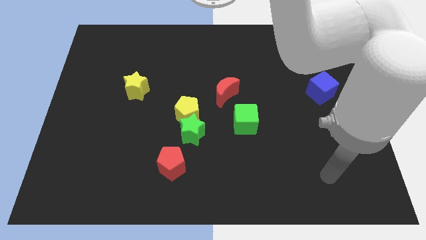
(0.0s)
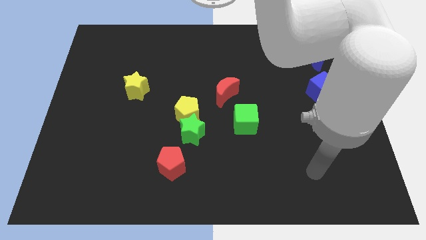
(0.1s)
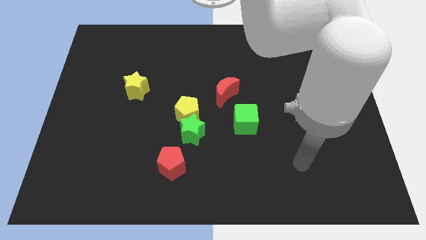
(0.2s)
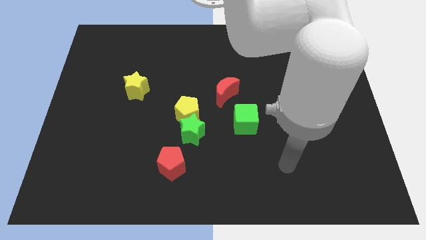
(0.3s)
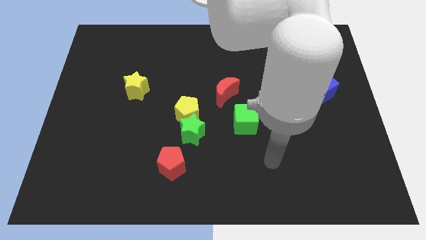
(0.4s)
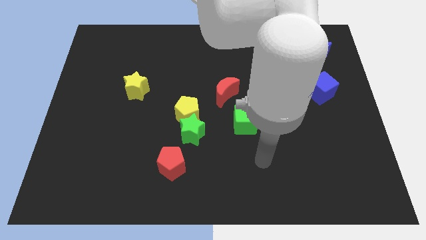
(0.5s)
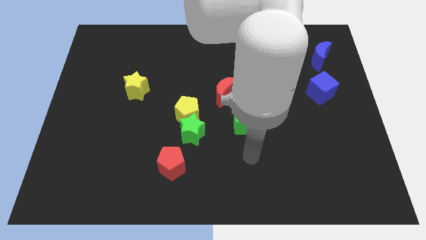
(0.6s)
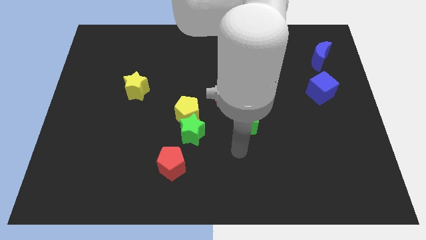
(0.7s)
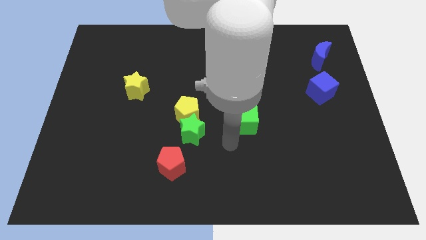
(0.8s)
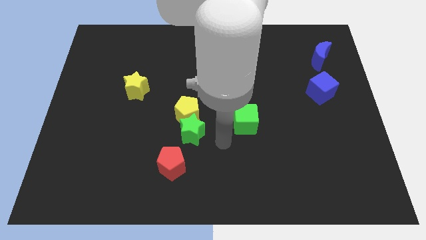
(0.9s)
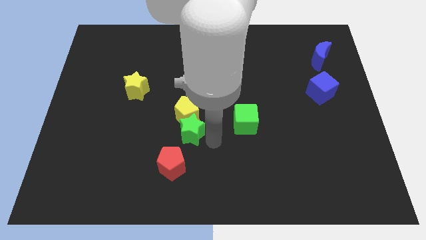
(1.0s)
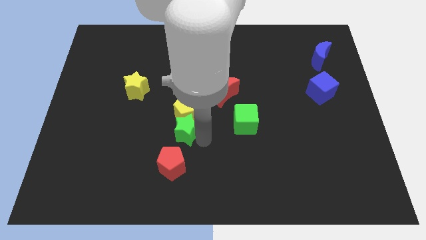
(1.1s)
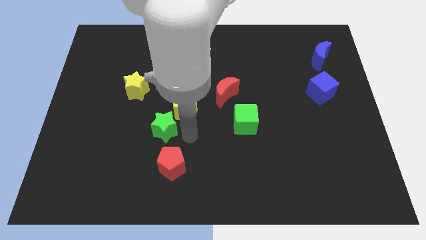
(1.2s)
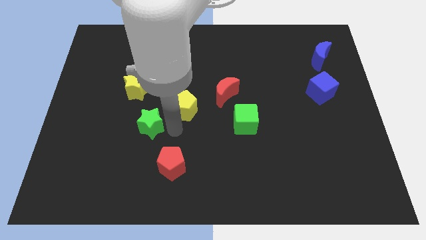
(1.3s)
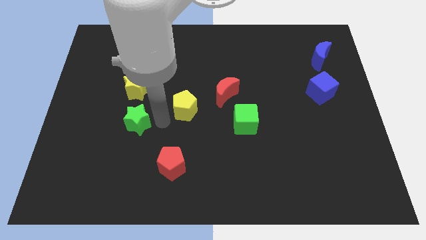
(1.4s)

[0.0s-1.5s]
move the yellow pentagon away from the green star

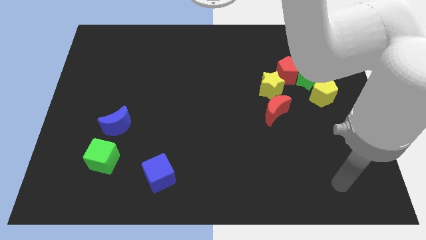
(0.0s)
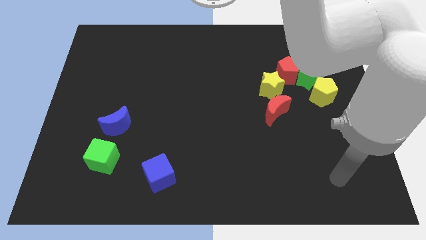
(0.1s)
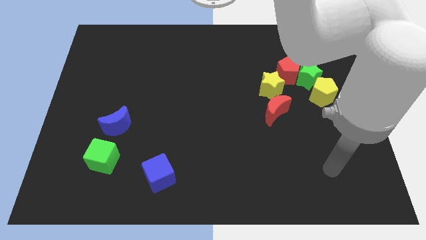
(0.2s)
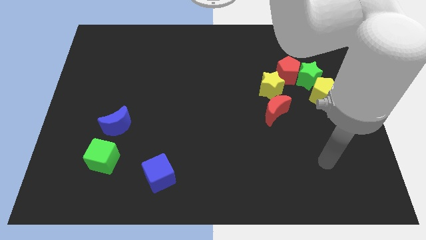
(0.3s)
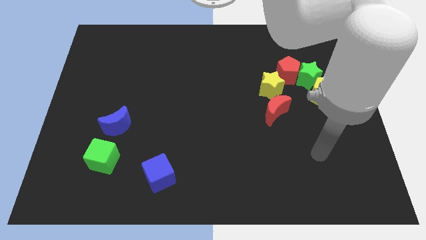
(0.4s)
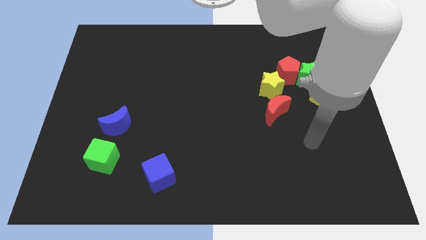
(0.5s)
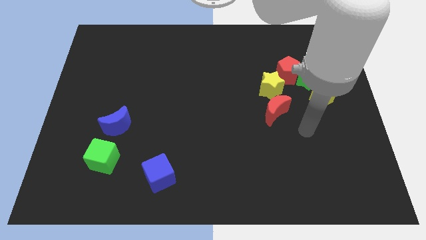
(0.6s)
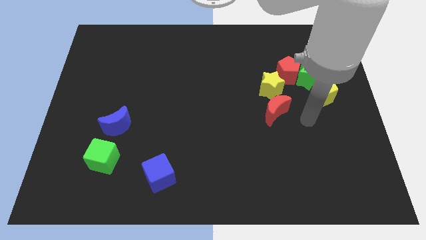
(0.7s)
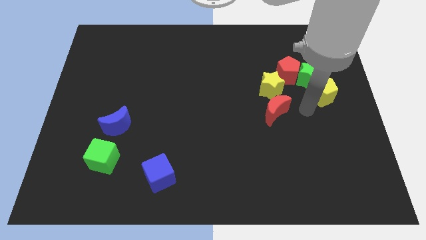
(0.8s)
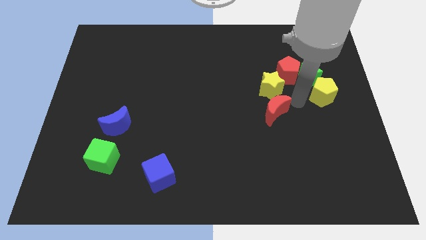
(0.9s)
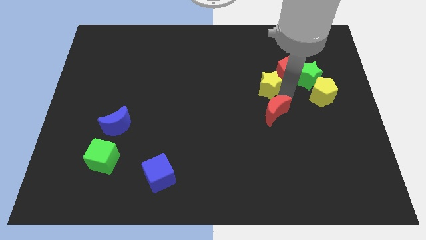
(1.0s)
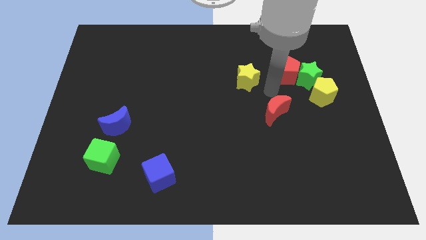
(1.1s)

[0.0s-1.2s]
pull the red moon apart from the yellow star

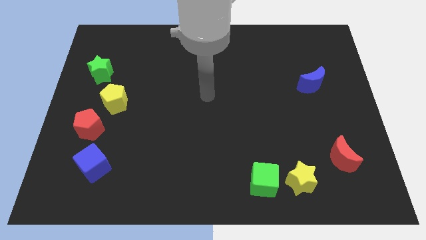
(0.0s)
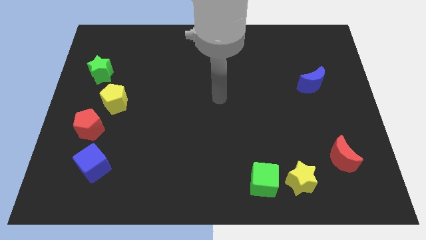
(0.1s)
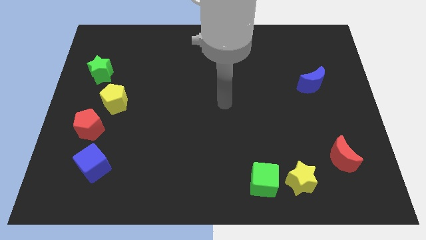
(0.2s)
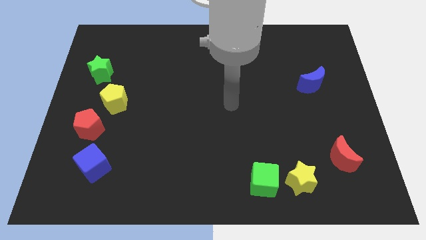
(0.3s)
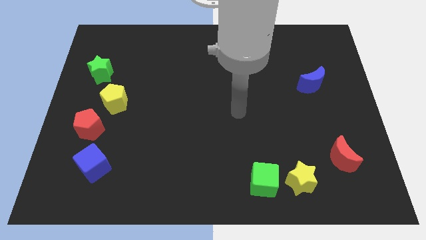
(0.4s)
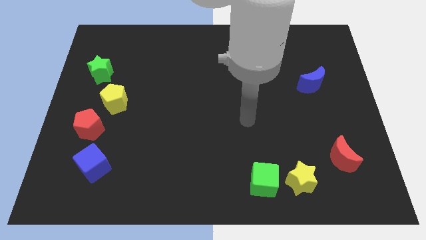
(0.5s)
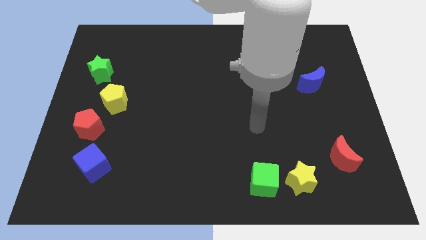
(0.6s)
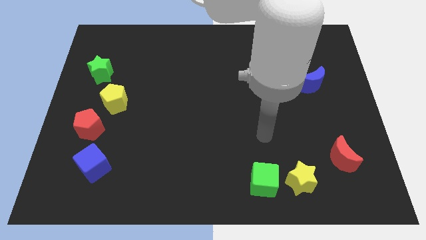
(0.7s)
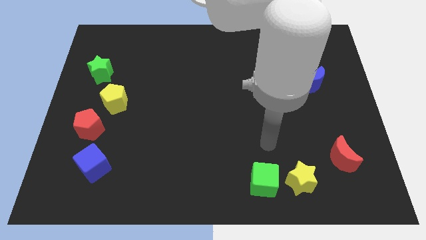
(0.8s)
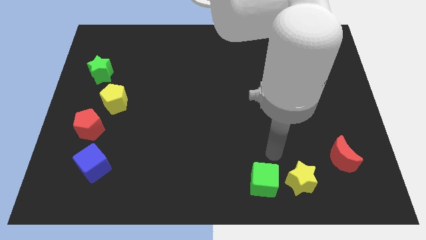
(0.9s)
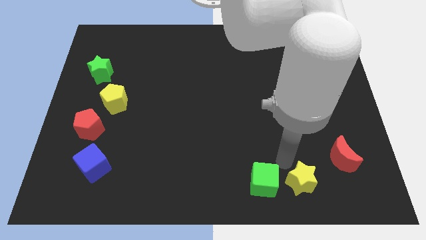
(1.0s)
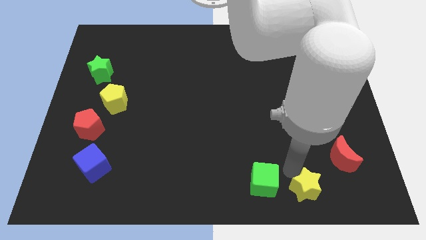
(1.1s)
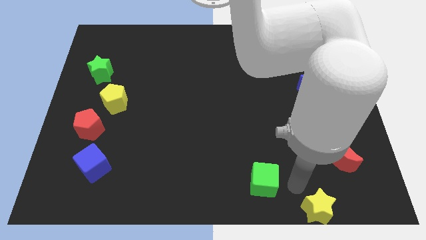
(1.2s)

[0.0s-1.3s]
separate the green cube from the yellow star

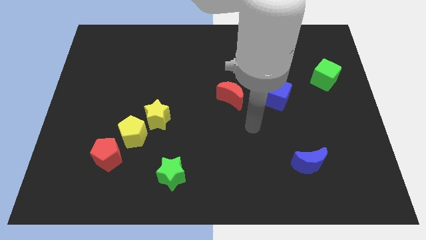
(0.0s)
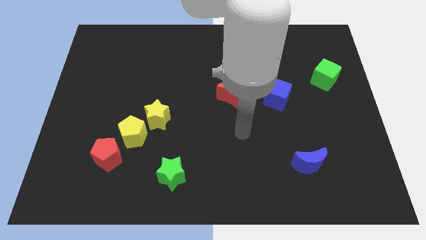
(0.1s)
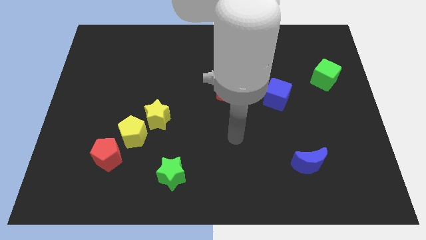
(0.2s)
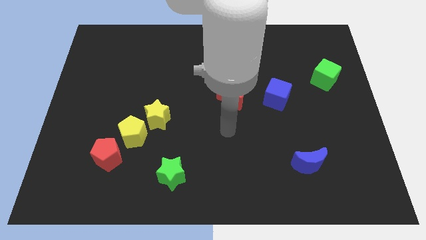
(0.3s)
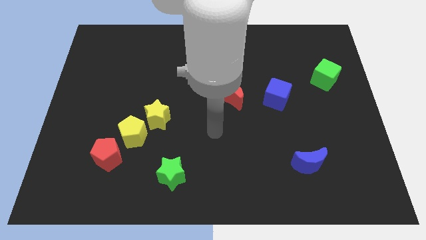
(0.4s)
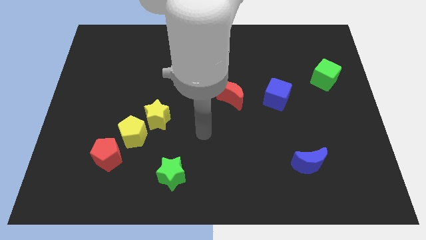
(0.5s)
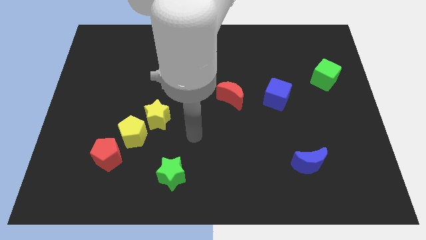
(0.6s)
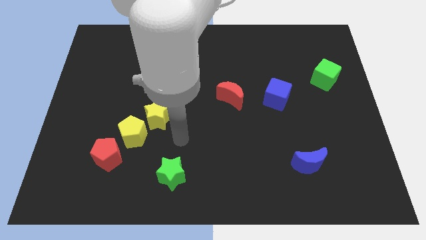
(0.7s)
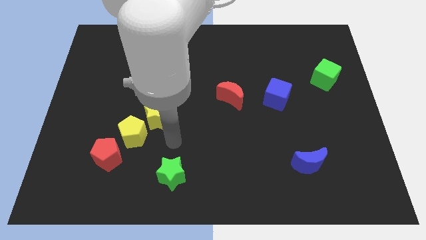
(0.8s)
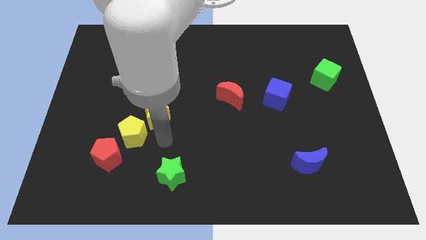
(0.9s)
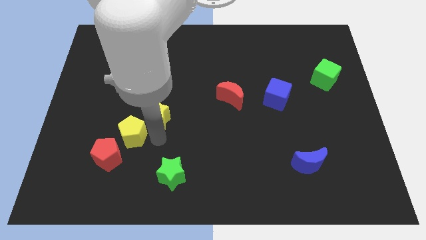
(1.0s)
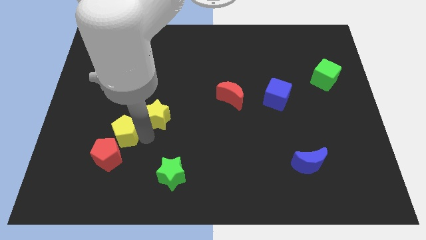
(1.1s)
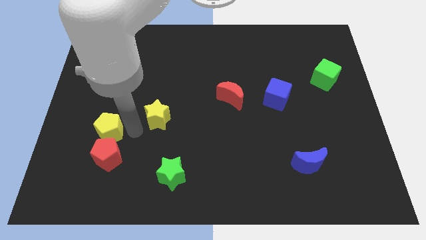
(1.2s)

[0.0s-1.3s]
pull the yellow star apart from the yellow pentagon

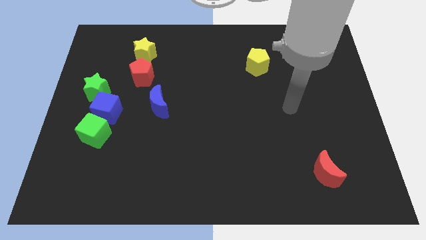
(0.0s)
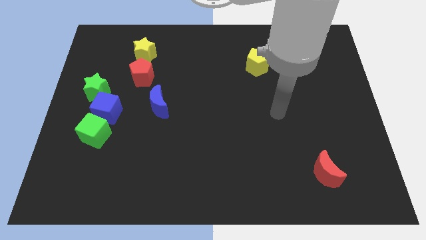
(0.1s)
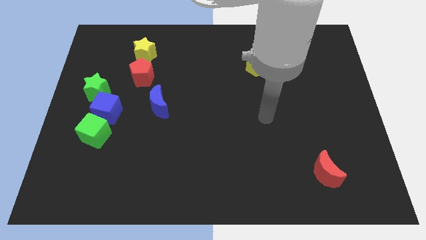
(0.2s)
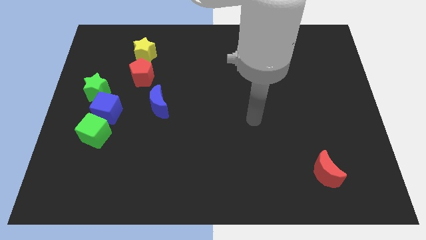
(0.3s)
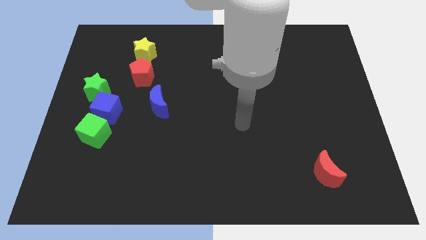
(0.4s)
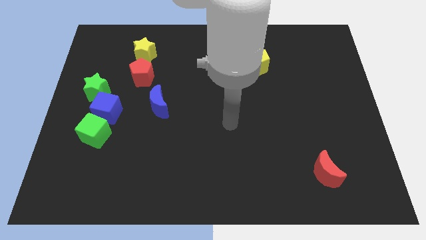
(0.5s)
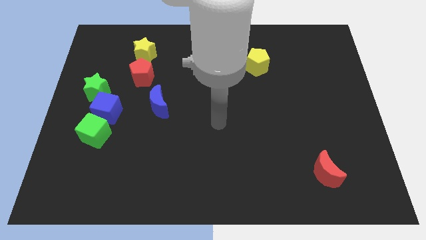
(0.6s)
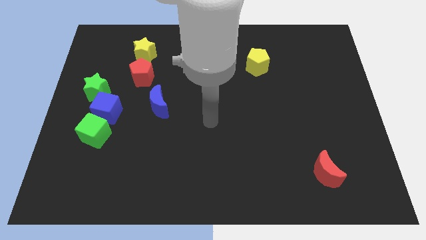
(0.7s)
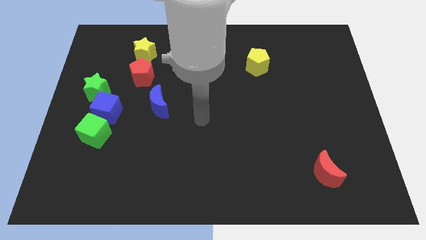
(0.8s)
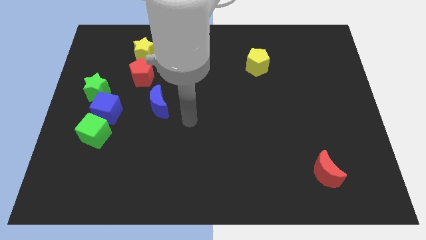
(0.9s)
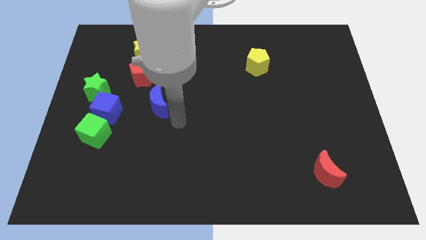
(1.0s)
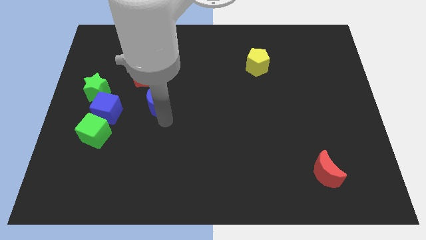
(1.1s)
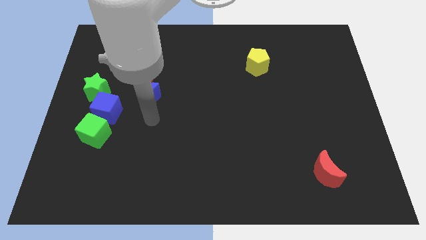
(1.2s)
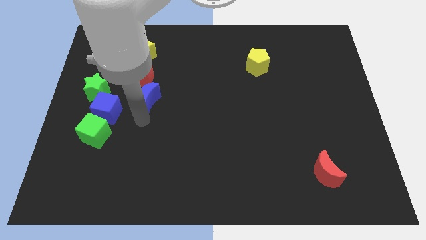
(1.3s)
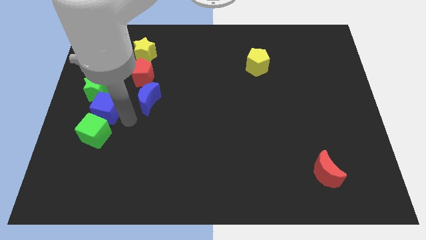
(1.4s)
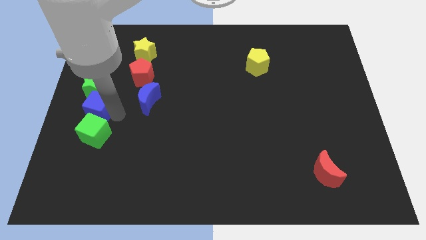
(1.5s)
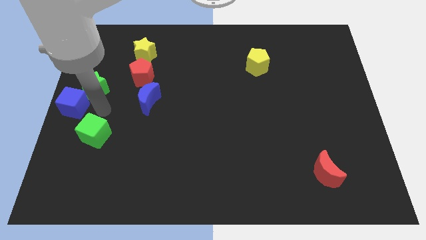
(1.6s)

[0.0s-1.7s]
pull the green cube apart from the blue cube

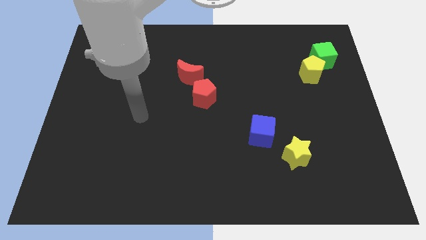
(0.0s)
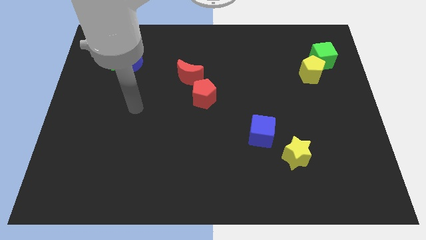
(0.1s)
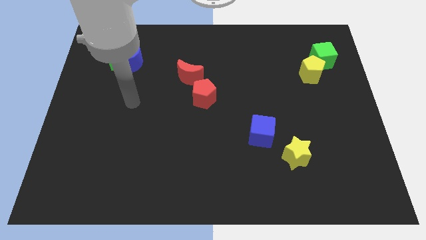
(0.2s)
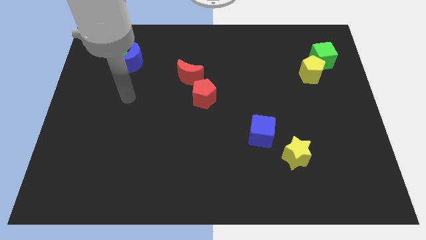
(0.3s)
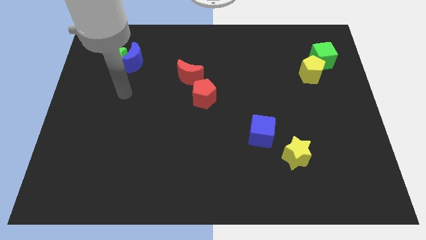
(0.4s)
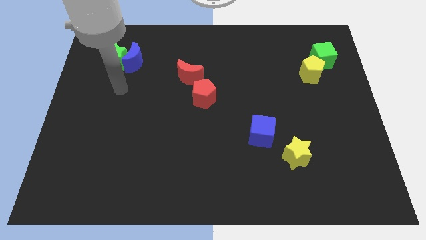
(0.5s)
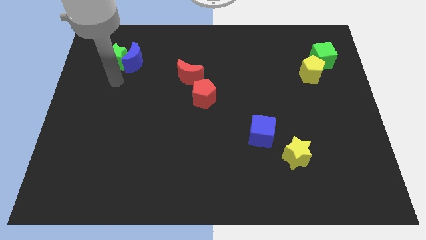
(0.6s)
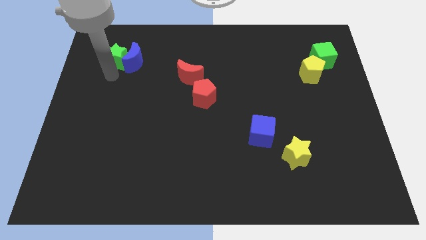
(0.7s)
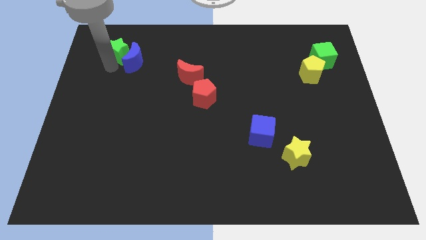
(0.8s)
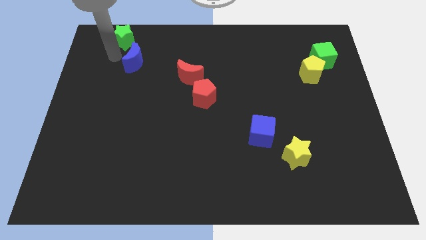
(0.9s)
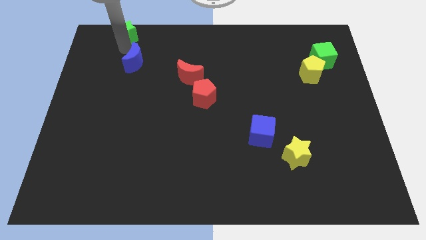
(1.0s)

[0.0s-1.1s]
move the blue moon away from the green star

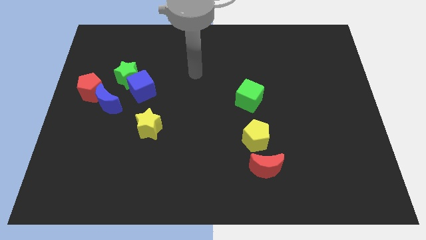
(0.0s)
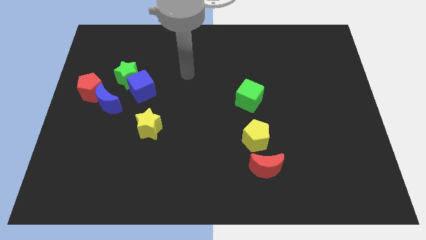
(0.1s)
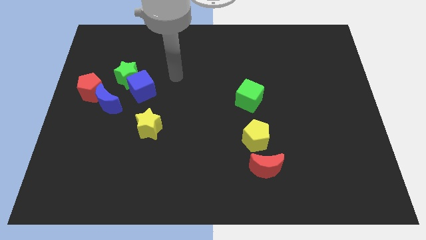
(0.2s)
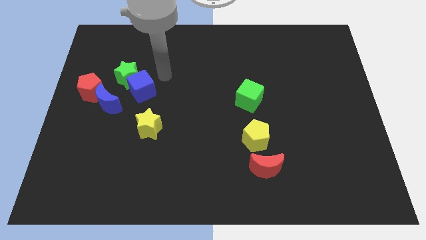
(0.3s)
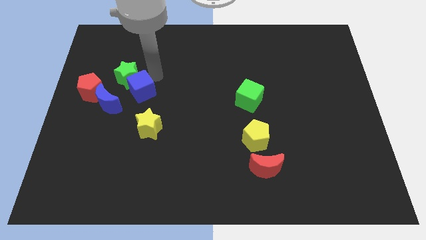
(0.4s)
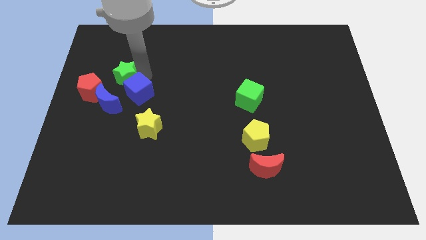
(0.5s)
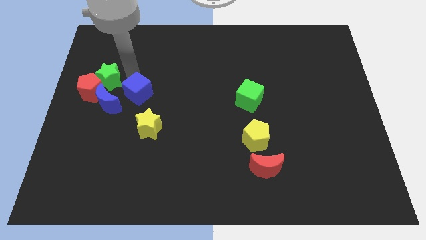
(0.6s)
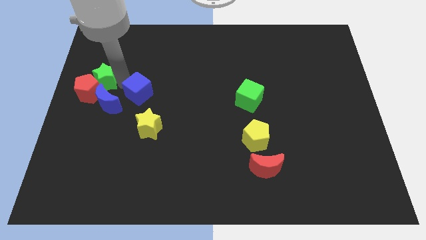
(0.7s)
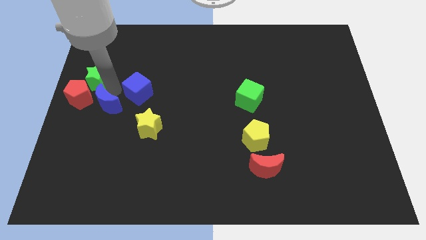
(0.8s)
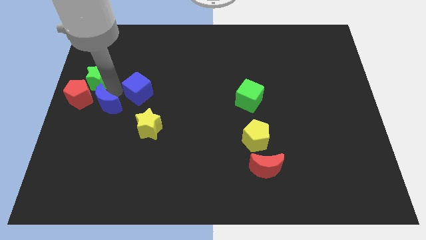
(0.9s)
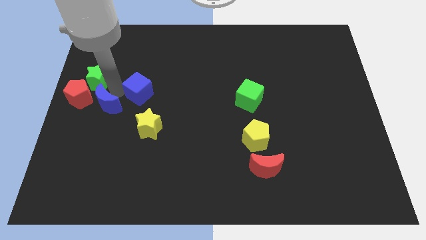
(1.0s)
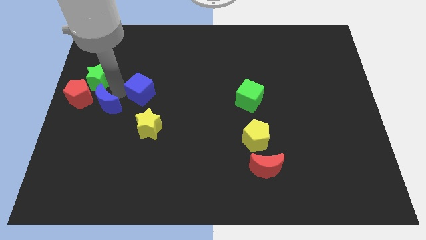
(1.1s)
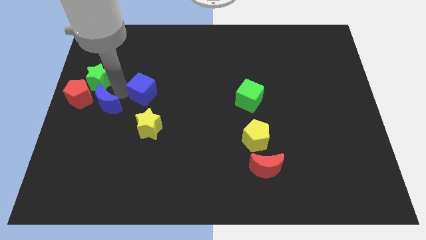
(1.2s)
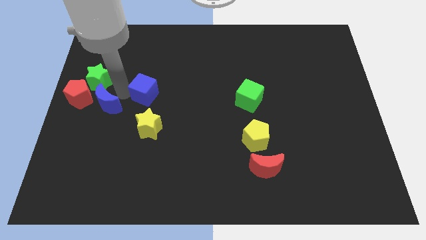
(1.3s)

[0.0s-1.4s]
separate the blue cube from the green star and blue moon
